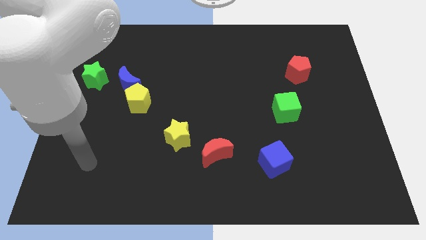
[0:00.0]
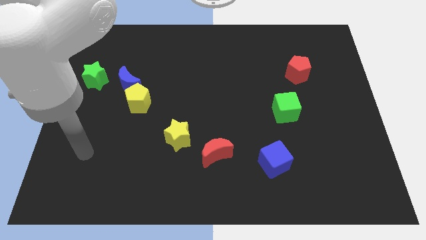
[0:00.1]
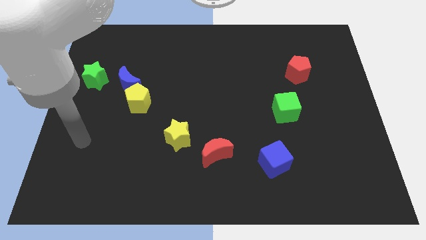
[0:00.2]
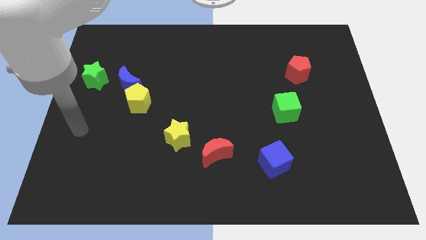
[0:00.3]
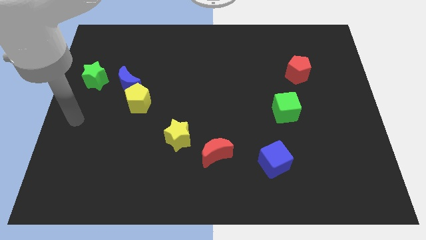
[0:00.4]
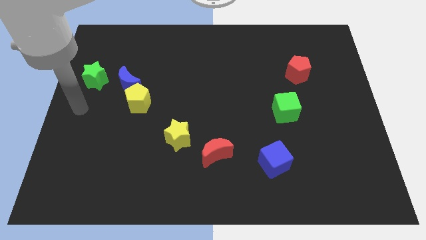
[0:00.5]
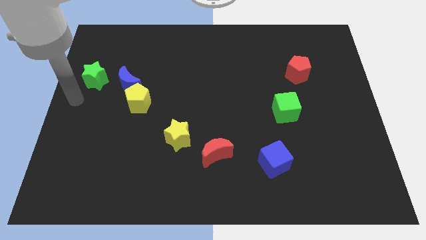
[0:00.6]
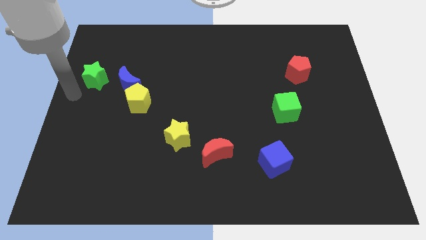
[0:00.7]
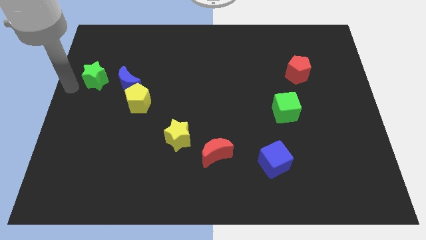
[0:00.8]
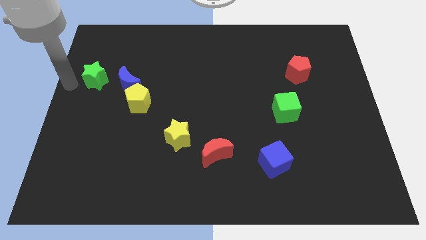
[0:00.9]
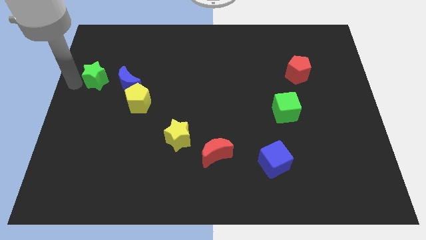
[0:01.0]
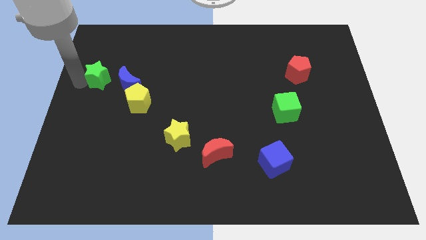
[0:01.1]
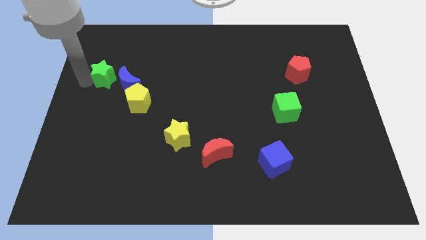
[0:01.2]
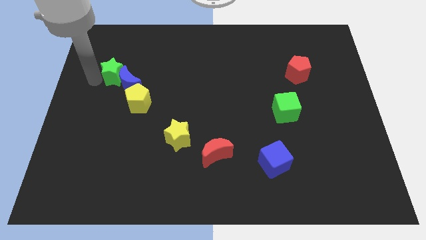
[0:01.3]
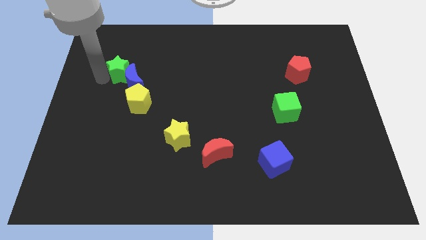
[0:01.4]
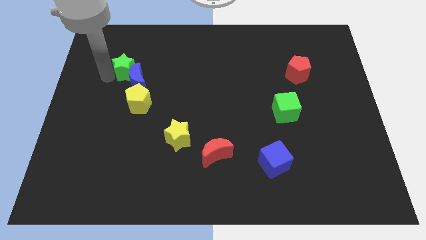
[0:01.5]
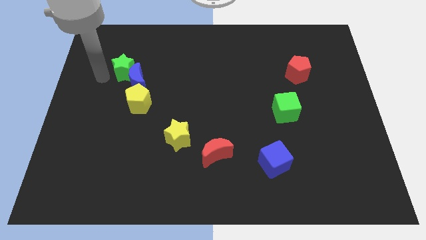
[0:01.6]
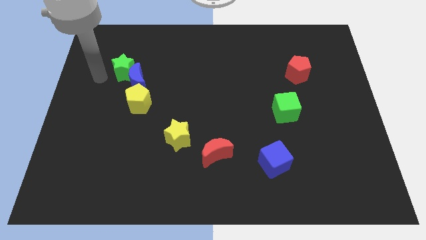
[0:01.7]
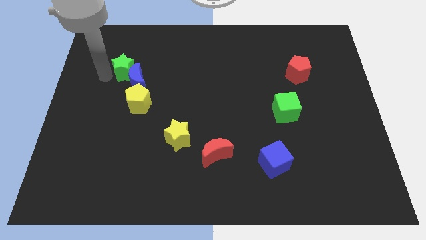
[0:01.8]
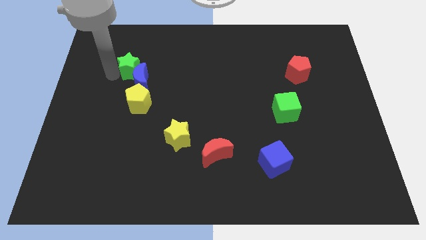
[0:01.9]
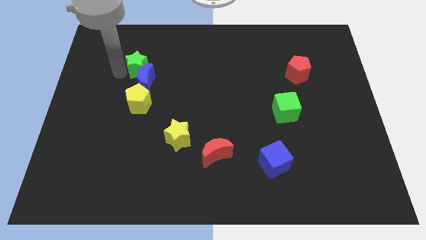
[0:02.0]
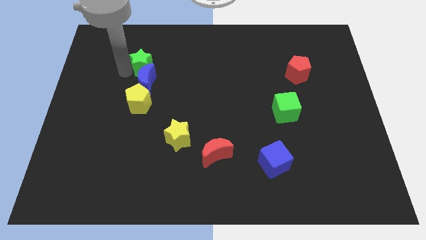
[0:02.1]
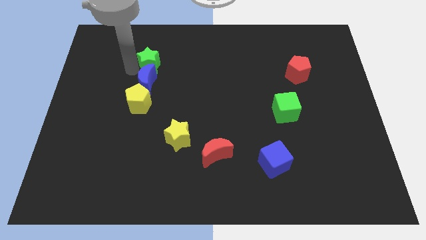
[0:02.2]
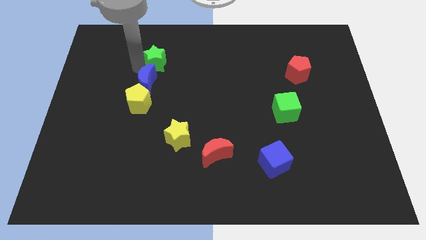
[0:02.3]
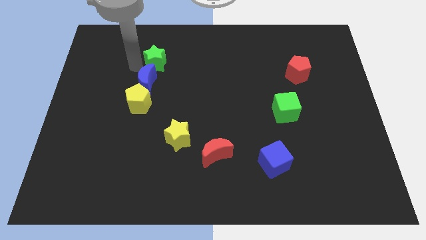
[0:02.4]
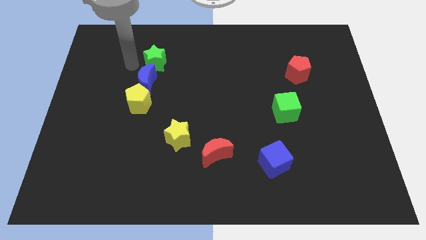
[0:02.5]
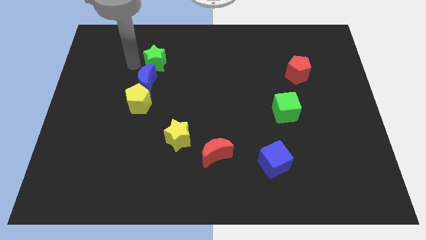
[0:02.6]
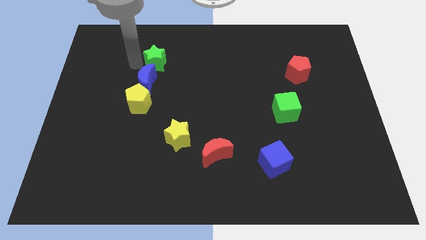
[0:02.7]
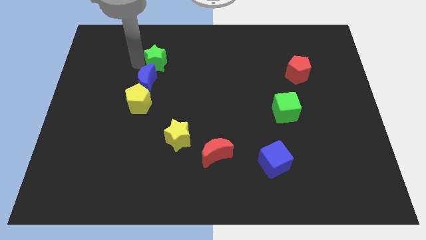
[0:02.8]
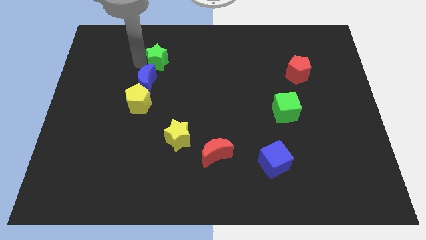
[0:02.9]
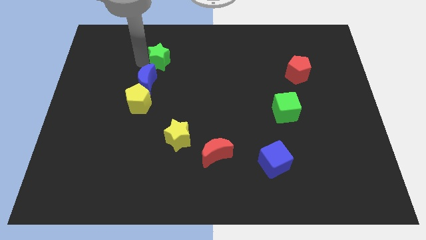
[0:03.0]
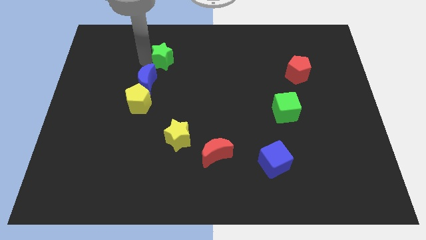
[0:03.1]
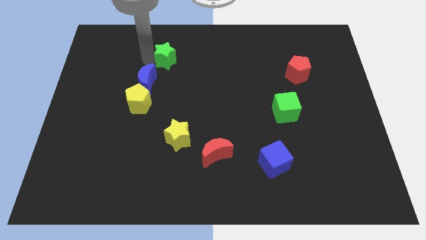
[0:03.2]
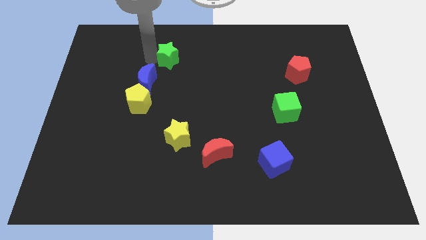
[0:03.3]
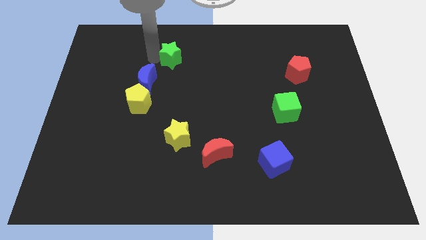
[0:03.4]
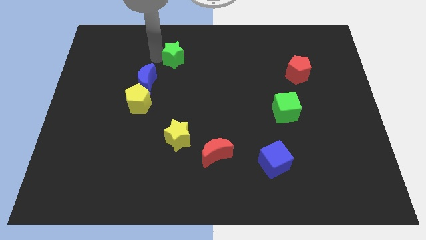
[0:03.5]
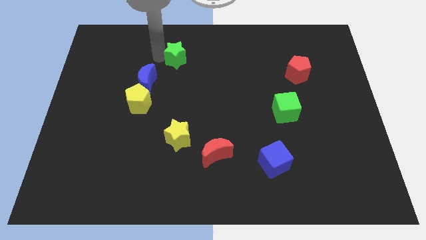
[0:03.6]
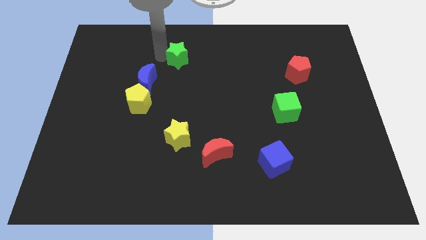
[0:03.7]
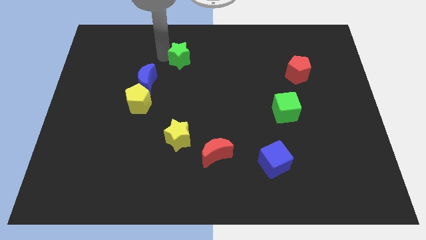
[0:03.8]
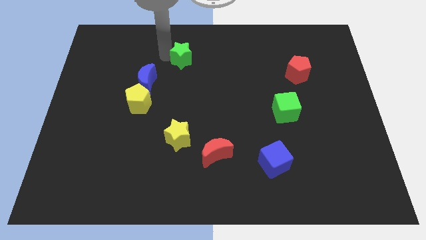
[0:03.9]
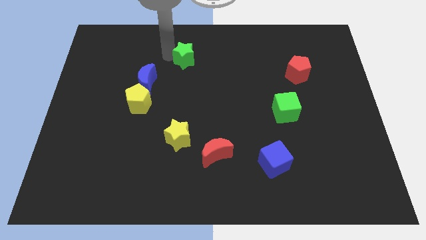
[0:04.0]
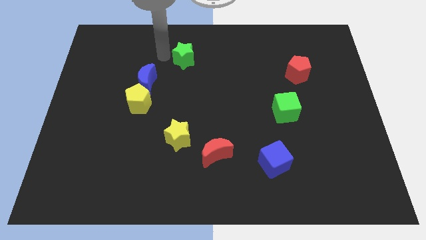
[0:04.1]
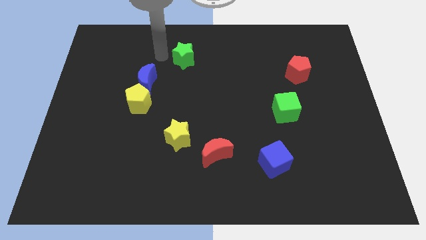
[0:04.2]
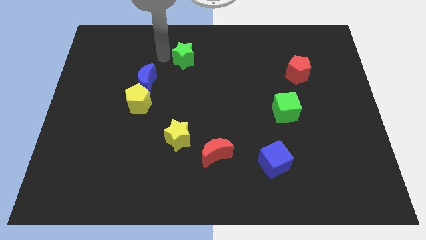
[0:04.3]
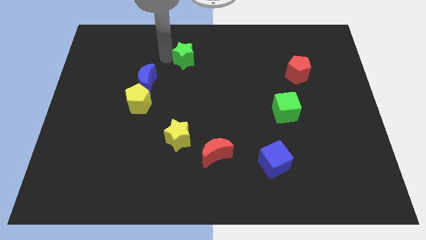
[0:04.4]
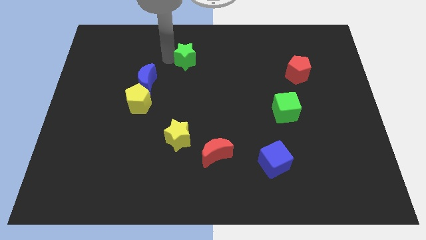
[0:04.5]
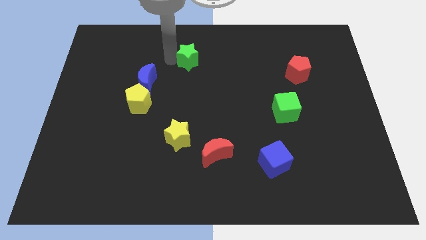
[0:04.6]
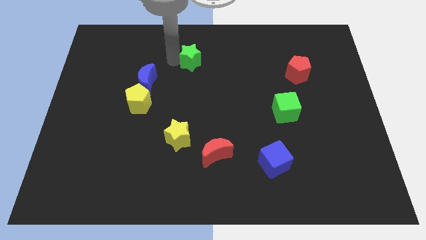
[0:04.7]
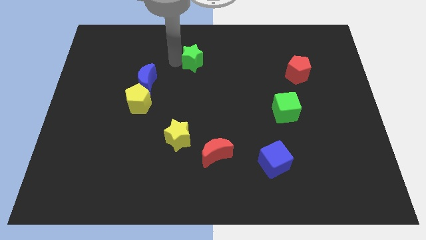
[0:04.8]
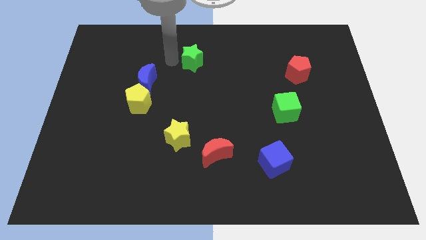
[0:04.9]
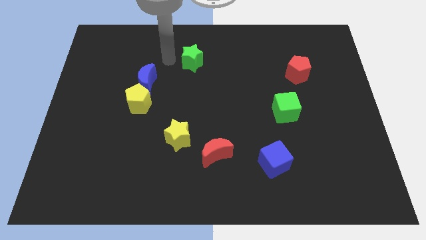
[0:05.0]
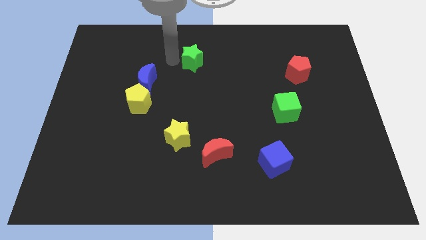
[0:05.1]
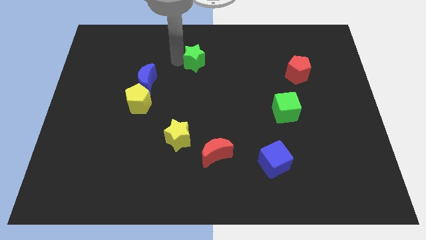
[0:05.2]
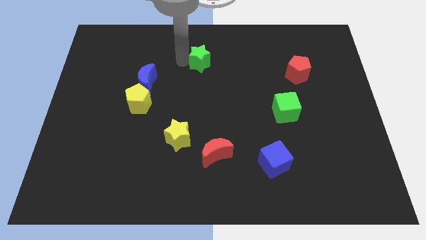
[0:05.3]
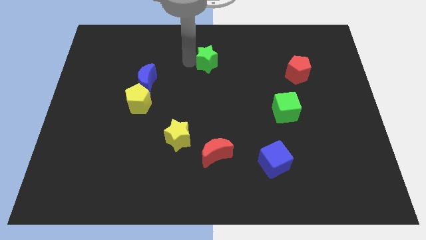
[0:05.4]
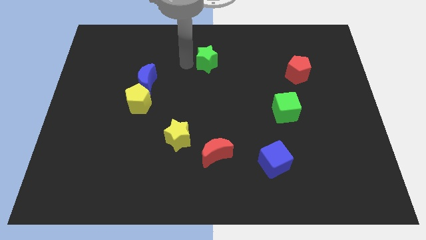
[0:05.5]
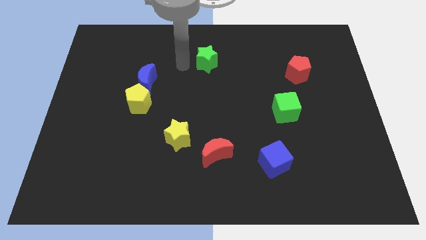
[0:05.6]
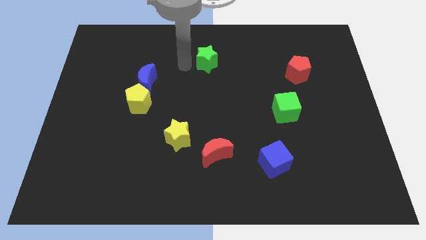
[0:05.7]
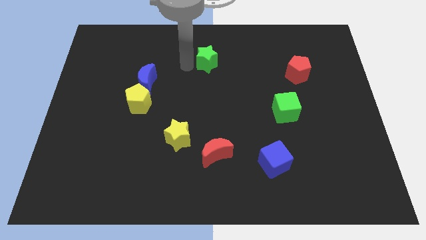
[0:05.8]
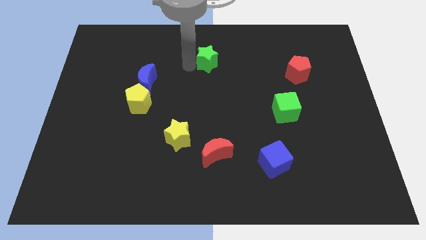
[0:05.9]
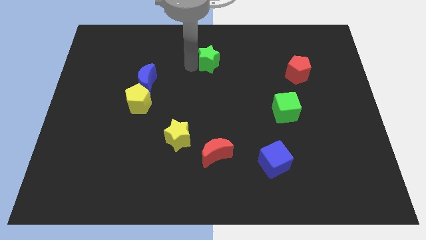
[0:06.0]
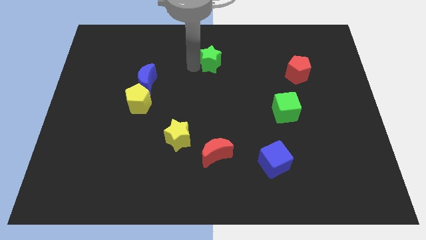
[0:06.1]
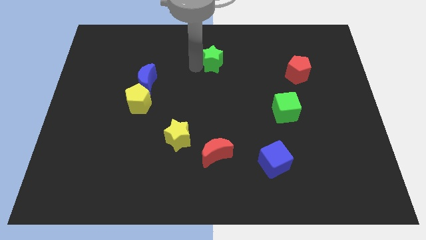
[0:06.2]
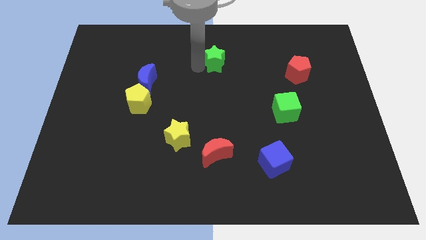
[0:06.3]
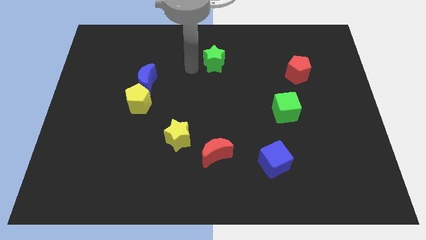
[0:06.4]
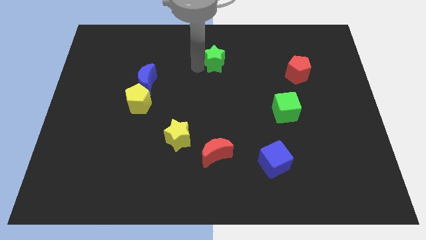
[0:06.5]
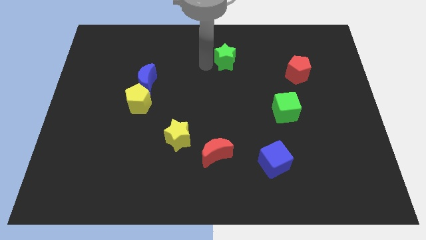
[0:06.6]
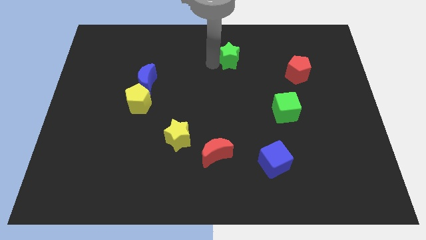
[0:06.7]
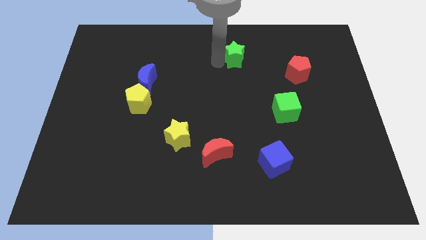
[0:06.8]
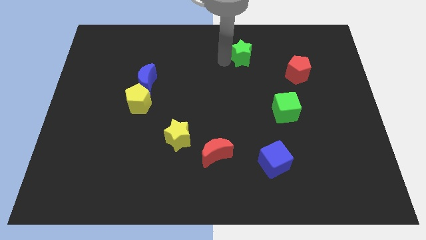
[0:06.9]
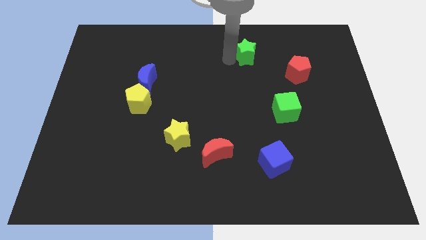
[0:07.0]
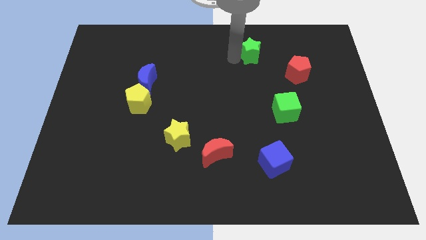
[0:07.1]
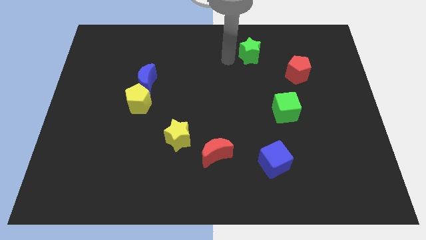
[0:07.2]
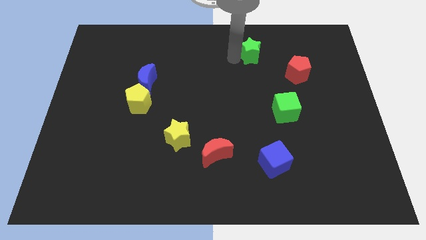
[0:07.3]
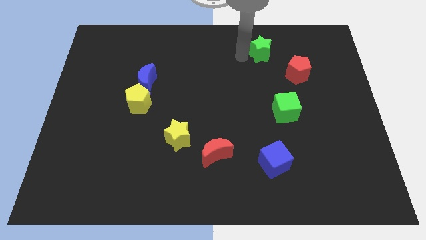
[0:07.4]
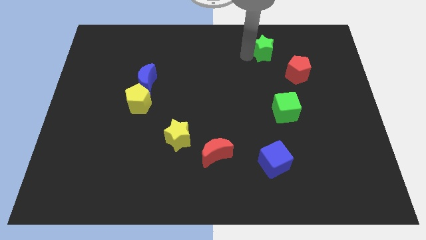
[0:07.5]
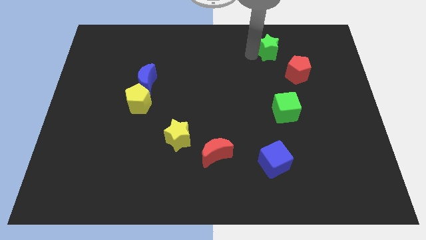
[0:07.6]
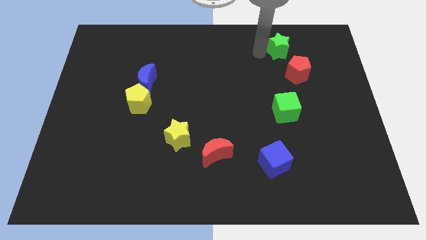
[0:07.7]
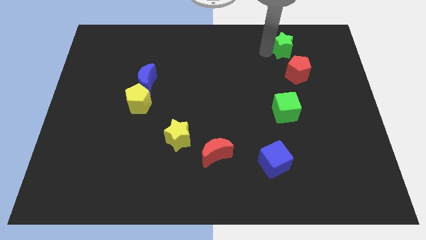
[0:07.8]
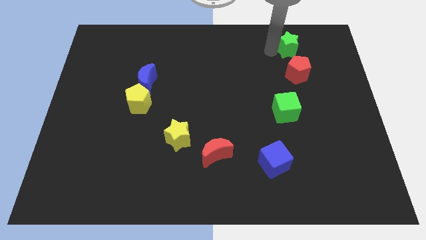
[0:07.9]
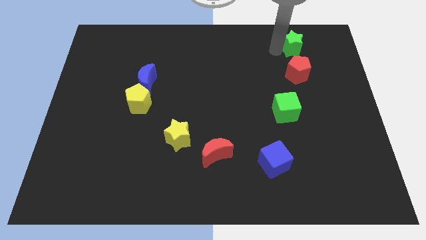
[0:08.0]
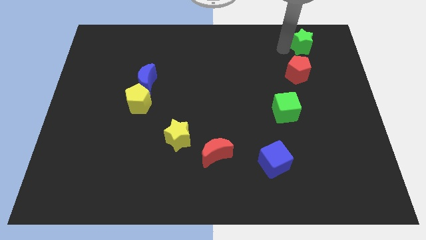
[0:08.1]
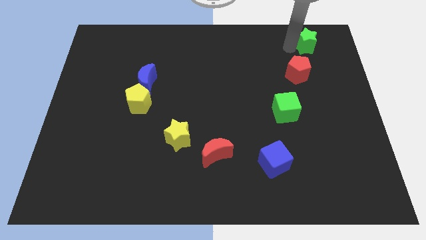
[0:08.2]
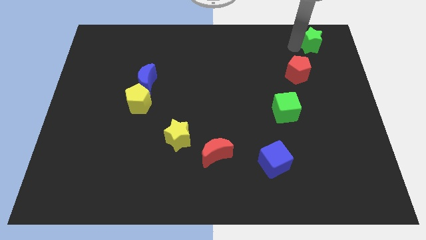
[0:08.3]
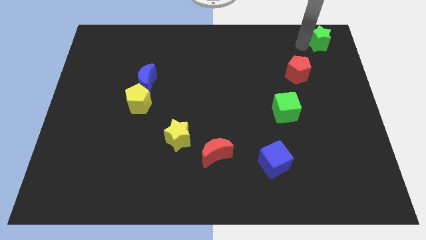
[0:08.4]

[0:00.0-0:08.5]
move the green star to the top right
